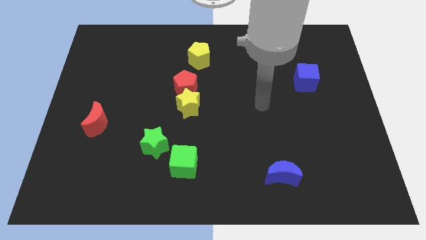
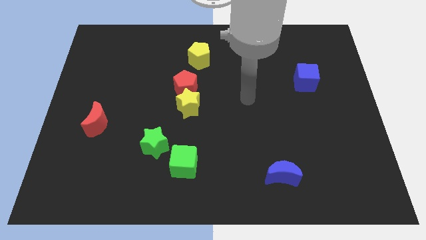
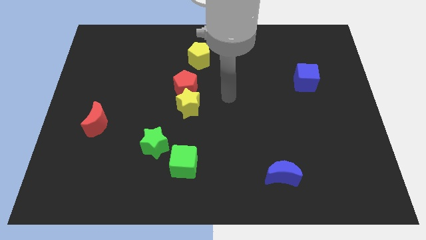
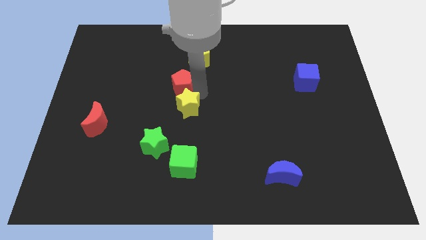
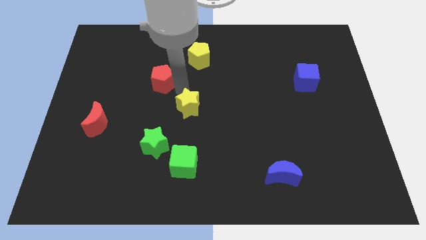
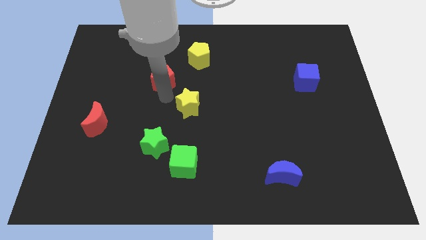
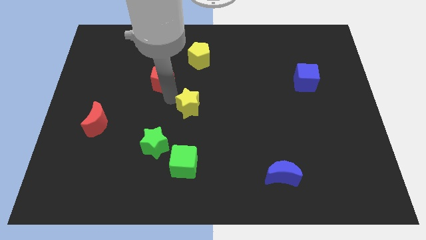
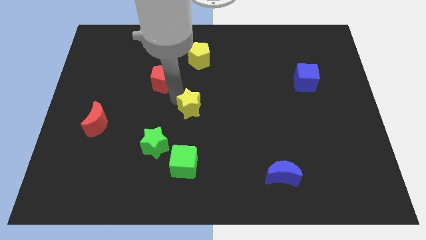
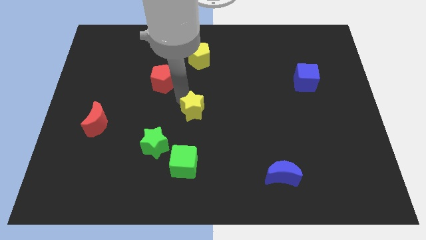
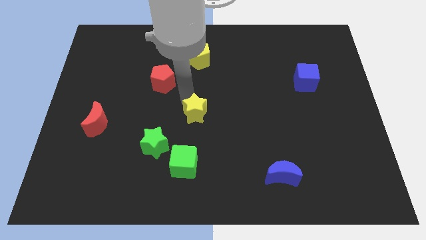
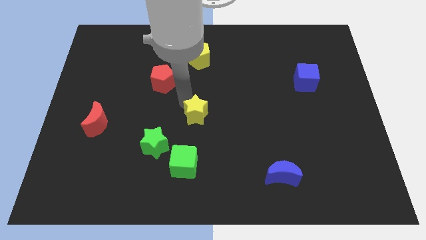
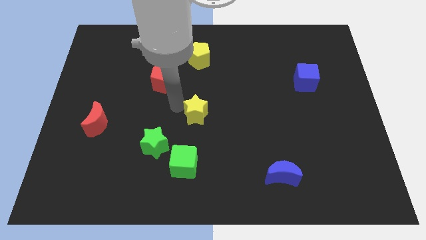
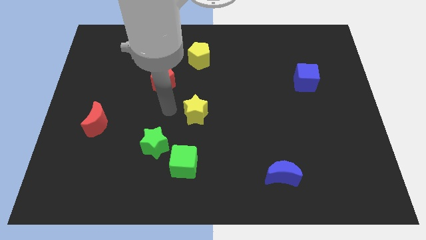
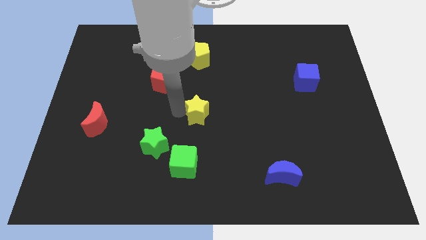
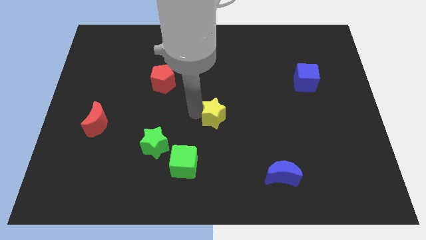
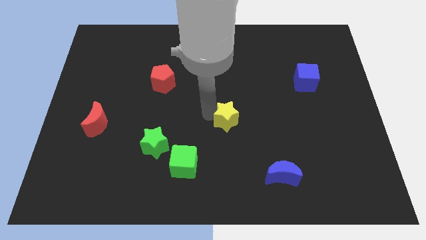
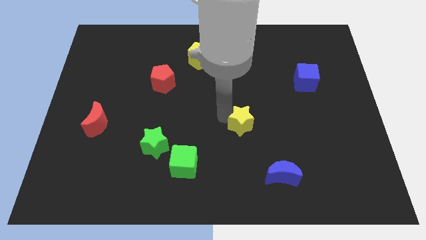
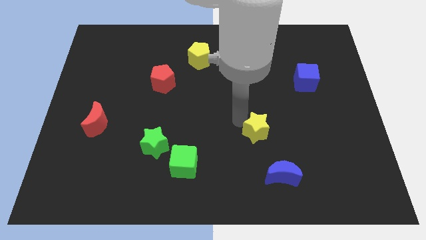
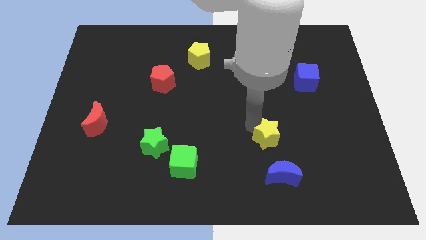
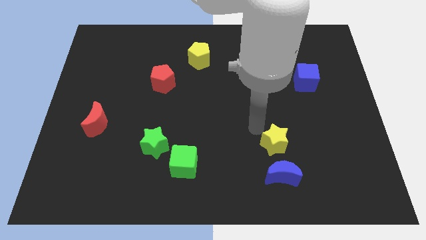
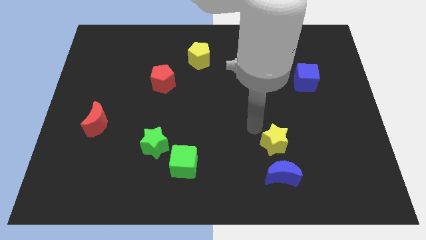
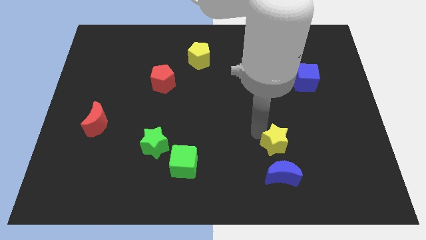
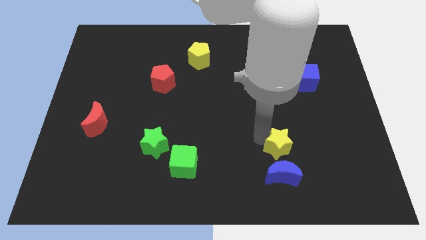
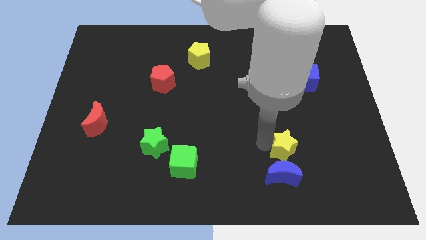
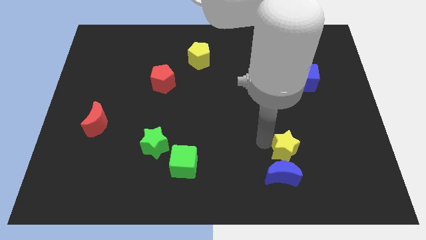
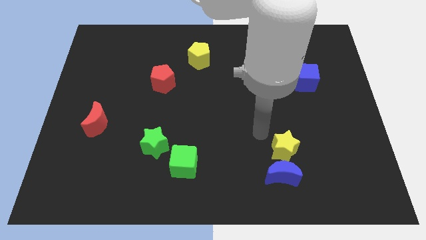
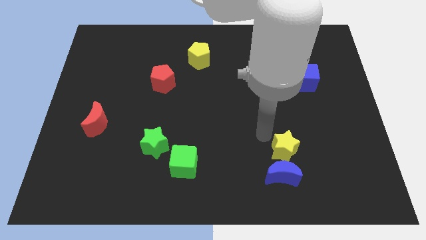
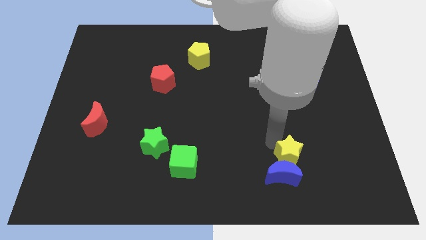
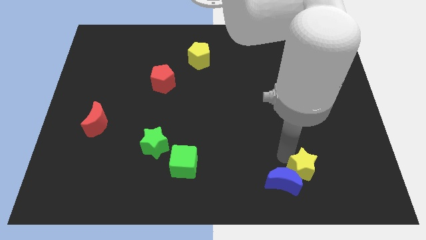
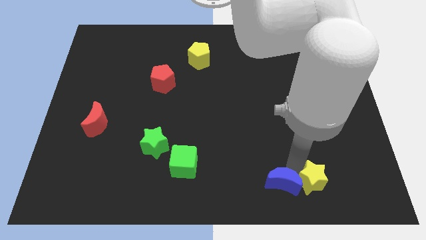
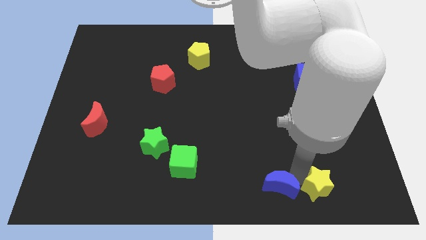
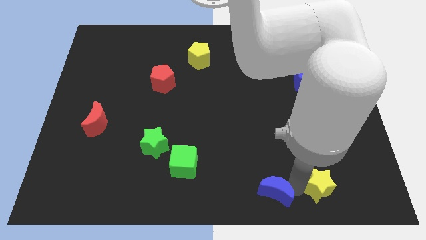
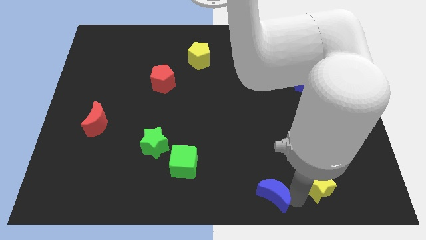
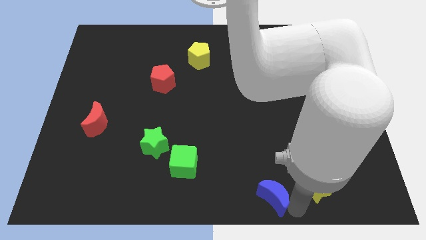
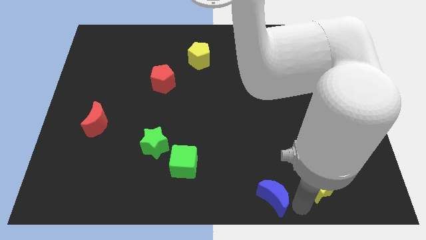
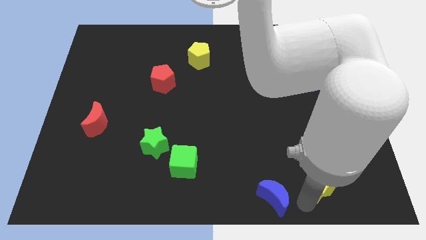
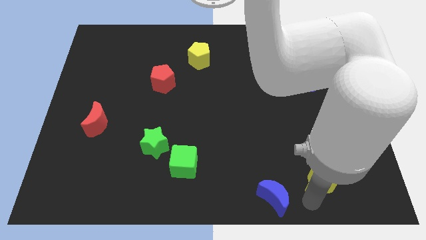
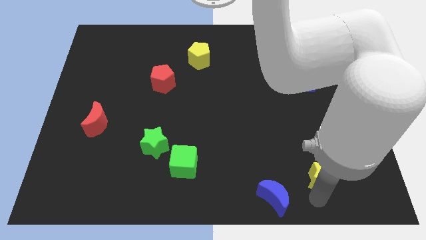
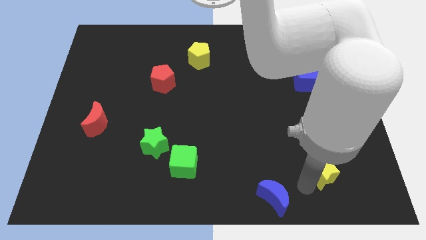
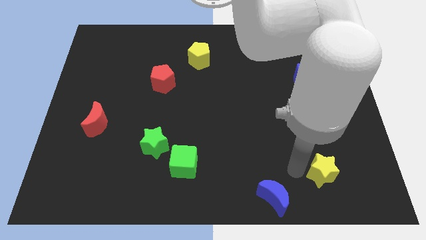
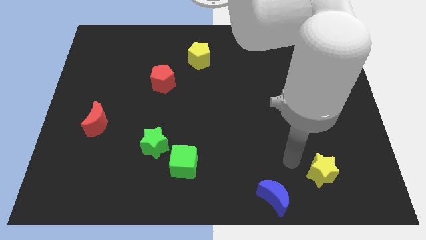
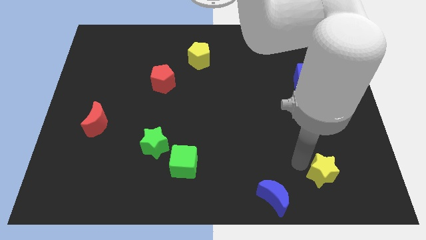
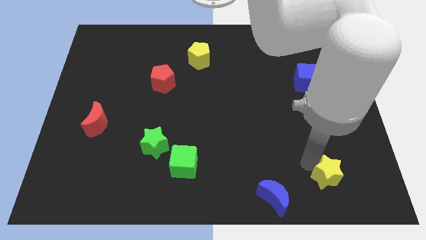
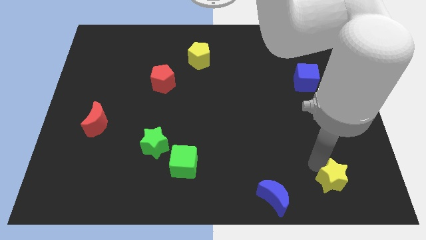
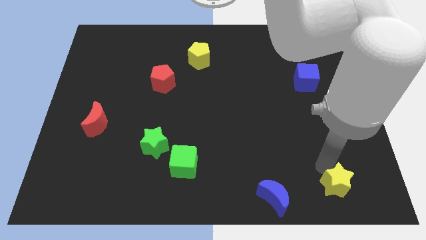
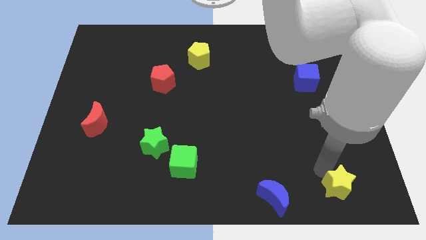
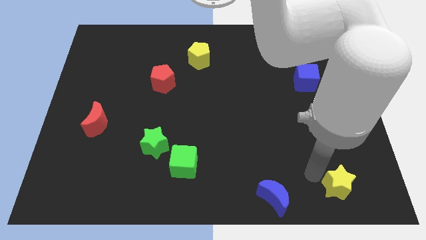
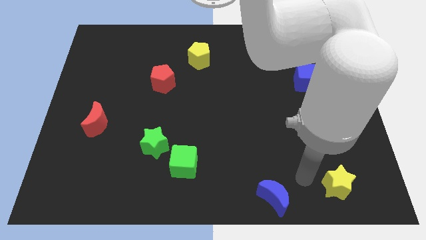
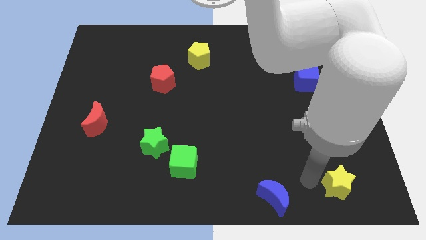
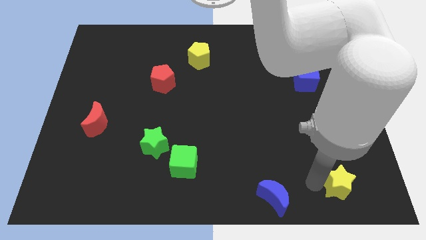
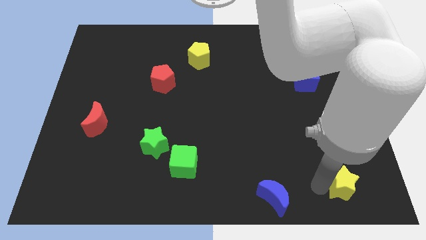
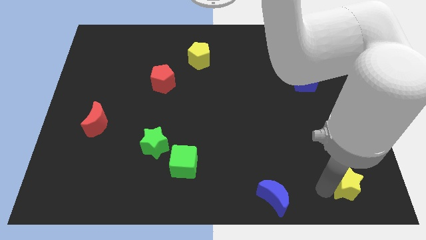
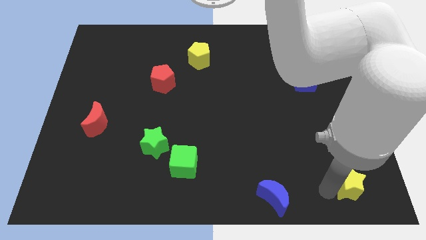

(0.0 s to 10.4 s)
slide the yellow star to the bottom right of the board

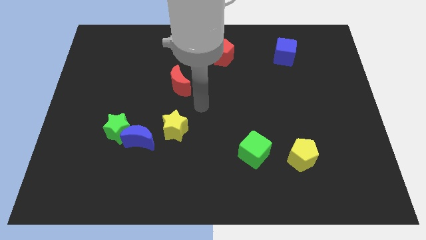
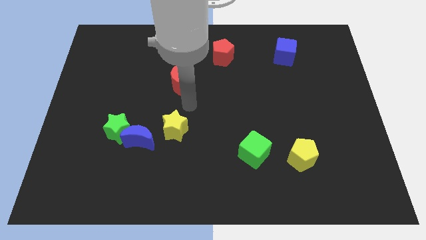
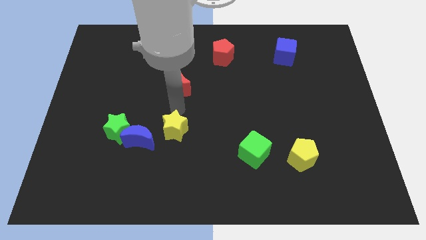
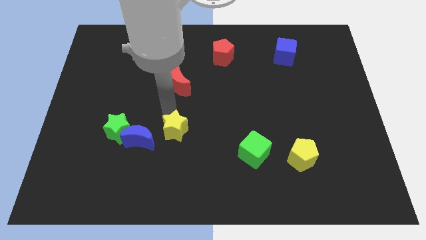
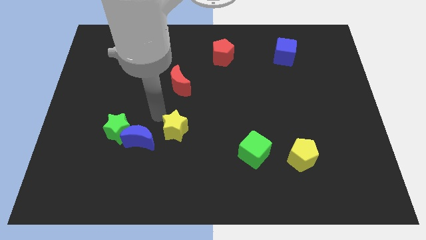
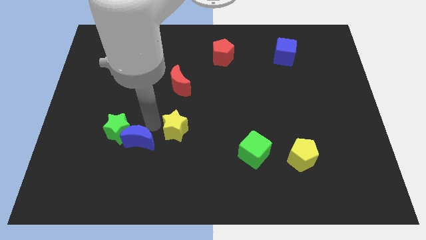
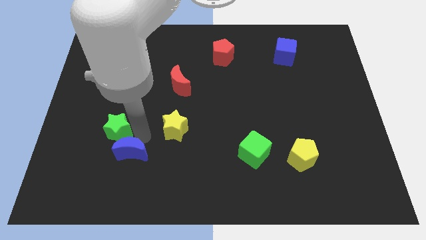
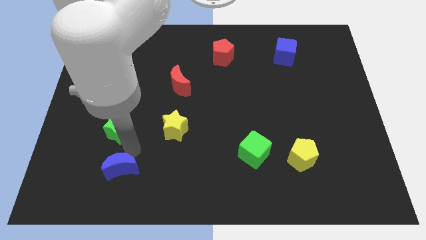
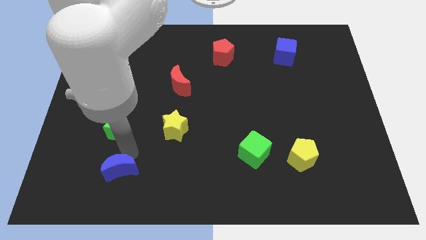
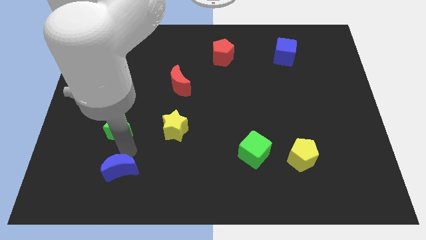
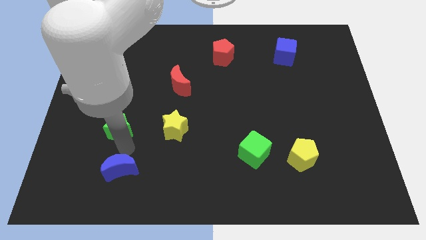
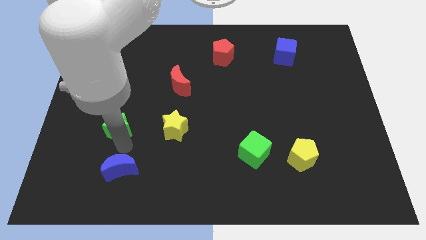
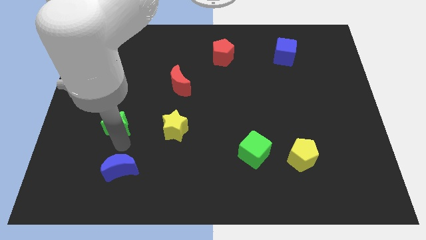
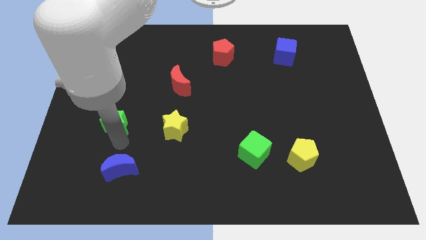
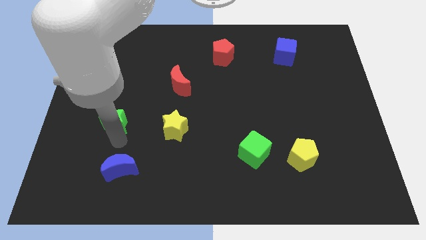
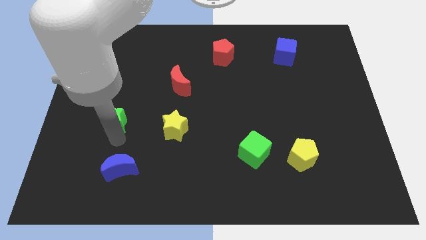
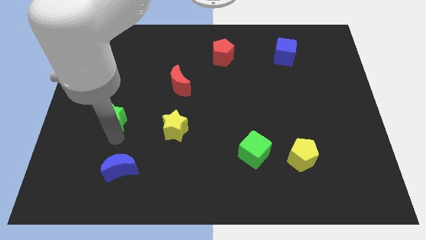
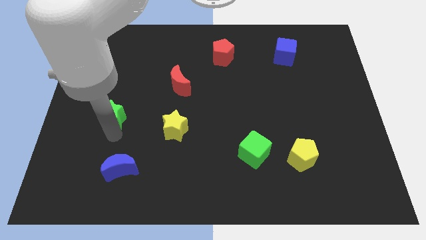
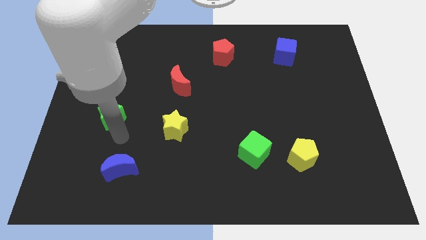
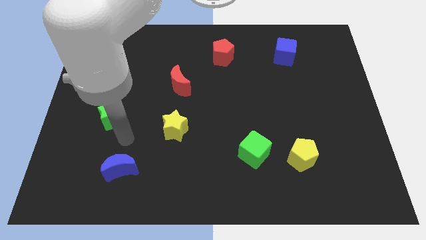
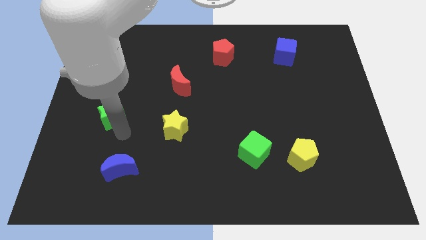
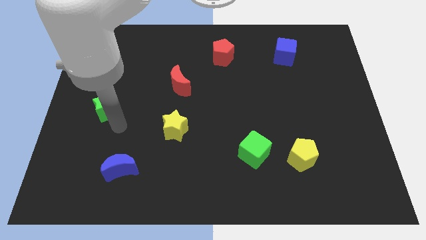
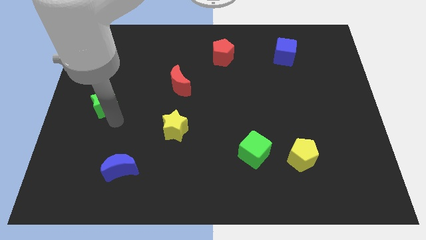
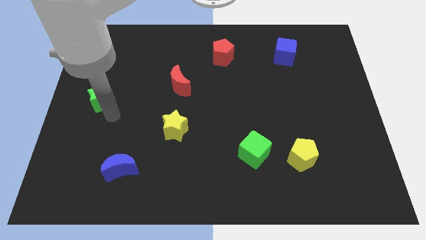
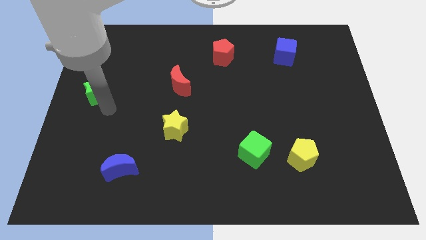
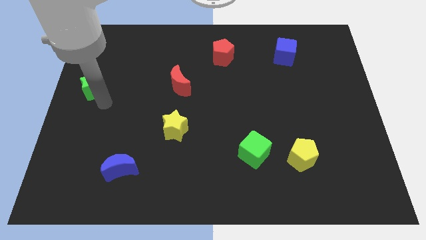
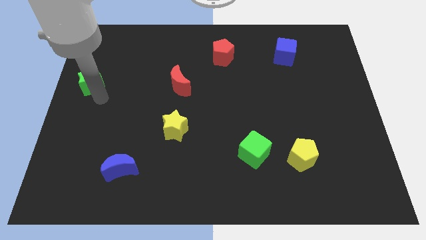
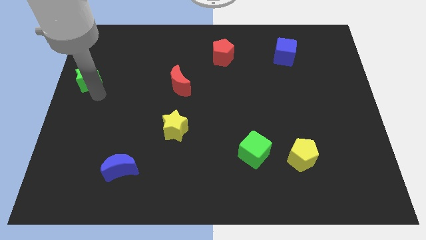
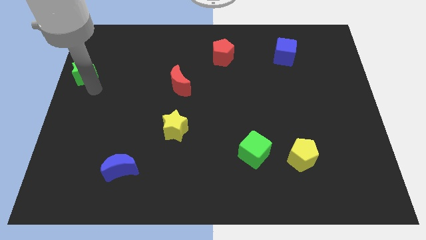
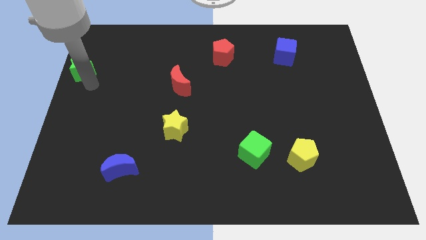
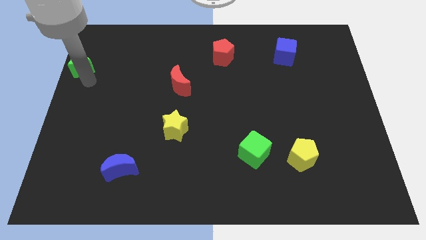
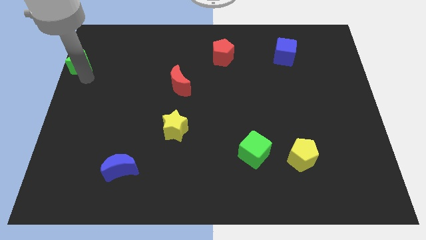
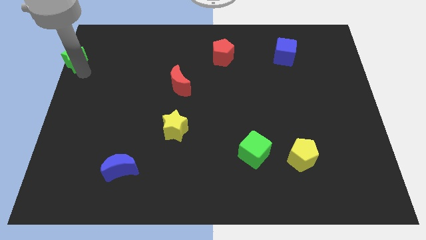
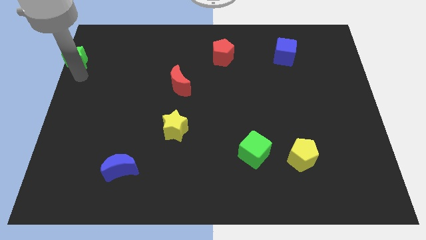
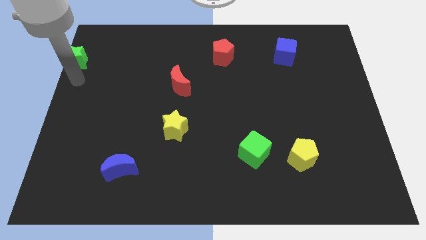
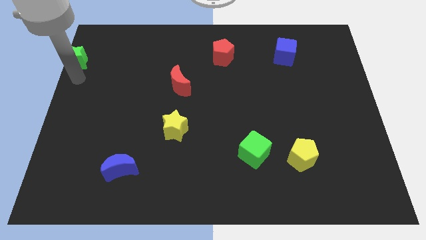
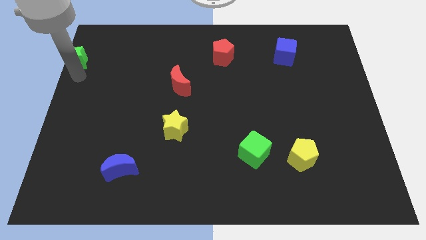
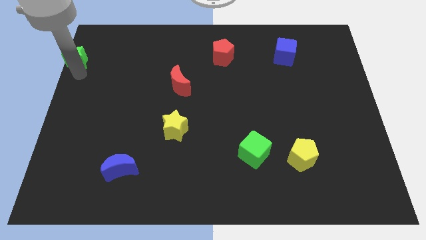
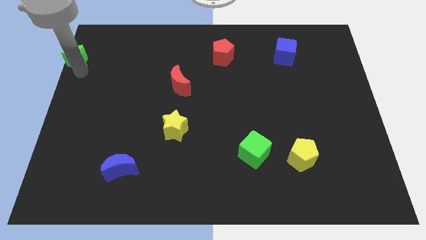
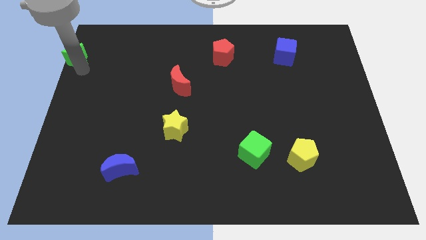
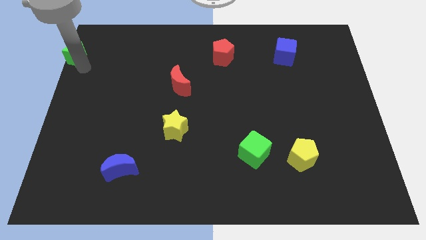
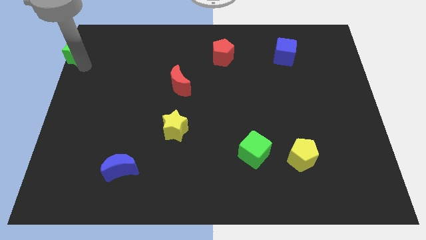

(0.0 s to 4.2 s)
push the green star to the upper left corner
